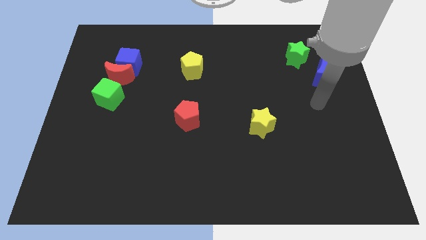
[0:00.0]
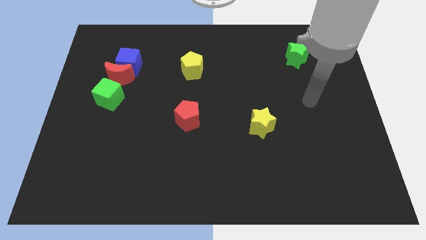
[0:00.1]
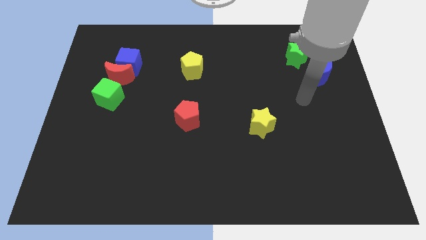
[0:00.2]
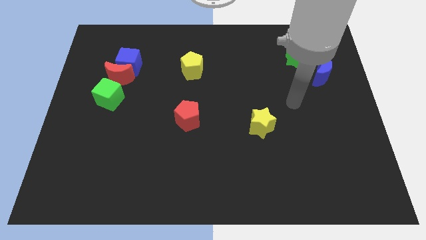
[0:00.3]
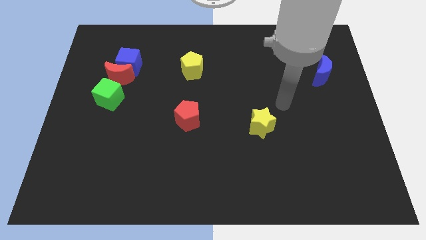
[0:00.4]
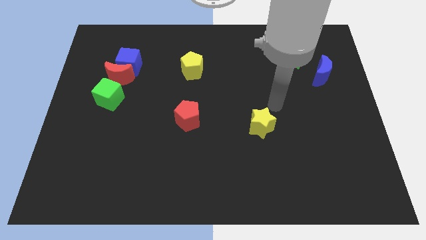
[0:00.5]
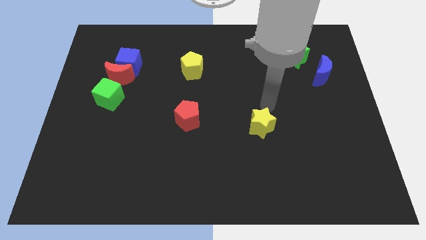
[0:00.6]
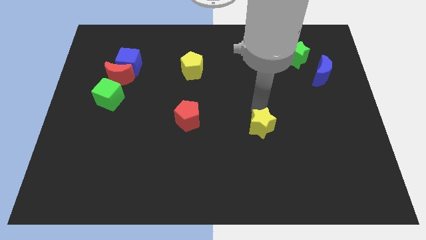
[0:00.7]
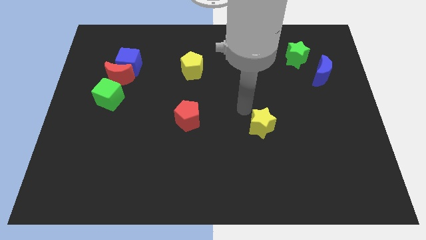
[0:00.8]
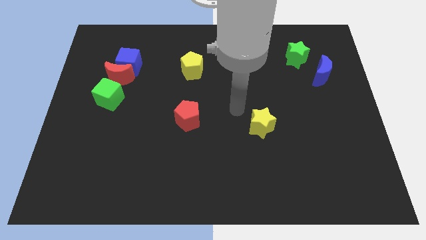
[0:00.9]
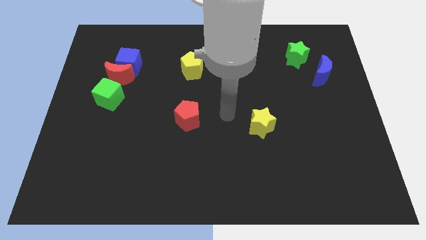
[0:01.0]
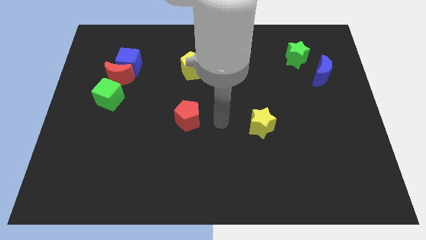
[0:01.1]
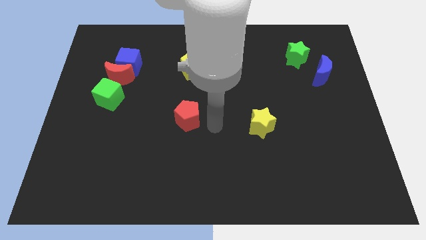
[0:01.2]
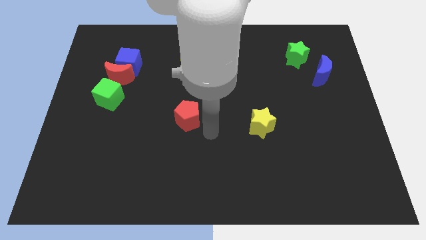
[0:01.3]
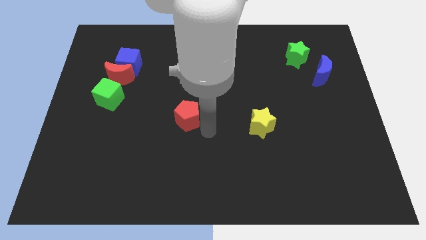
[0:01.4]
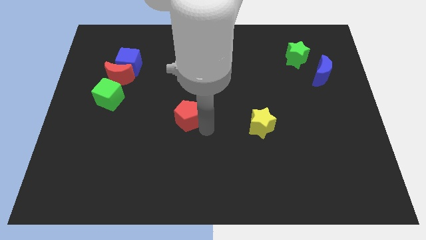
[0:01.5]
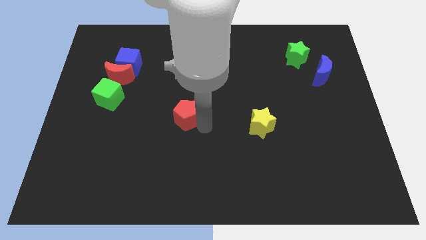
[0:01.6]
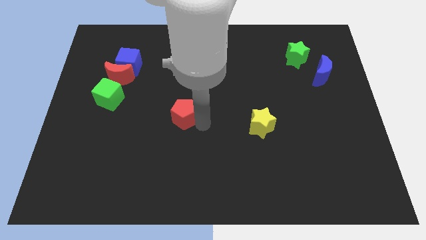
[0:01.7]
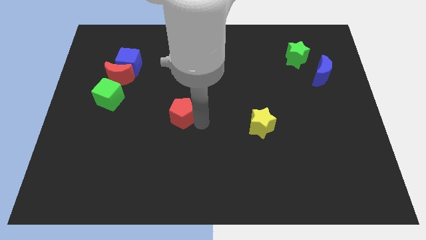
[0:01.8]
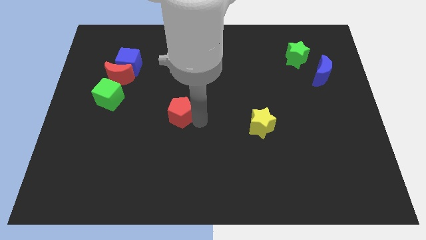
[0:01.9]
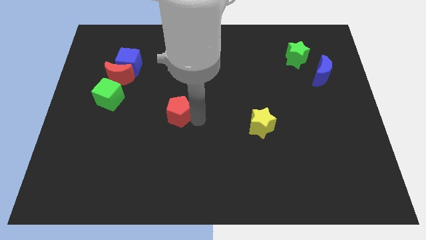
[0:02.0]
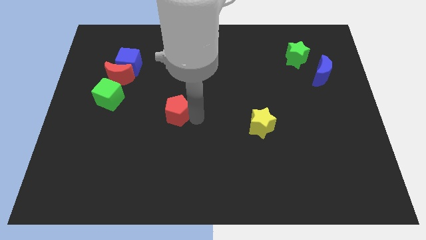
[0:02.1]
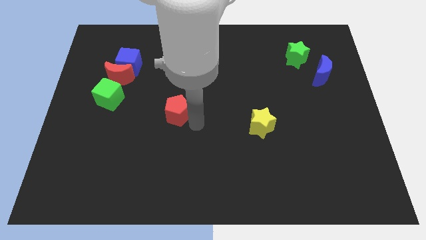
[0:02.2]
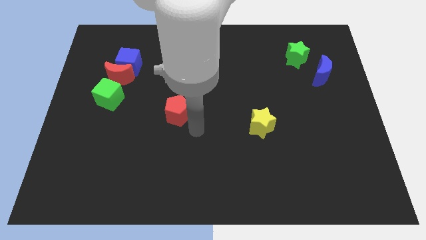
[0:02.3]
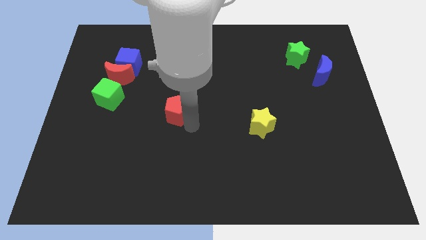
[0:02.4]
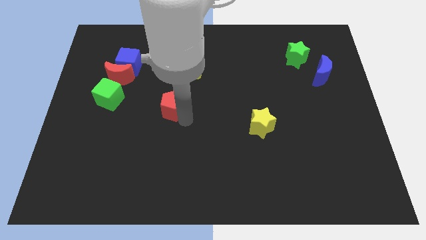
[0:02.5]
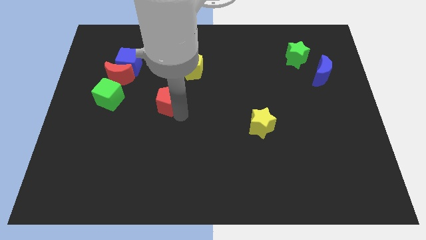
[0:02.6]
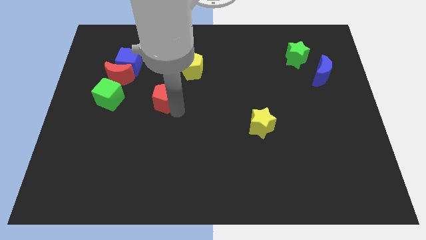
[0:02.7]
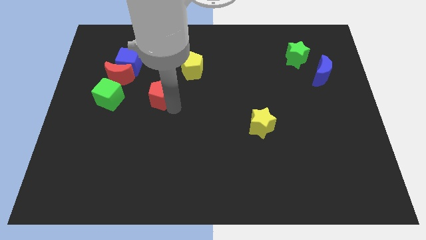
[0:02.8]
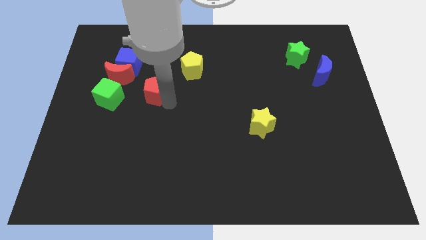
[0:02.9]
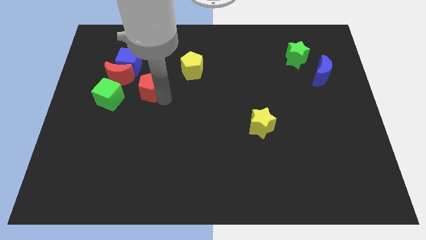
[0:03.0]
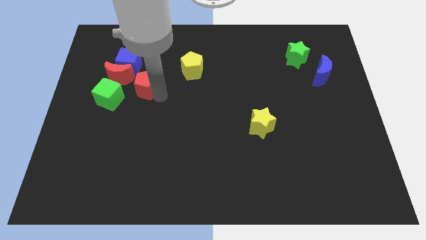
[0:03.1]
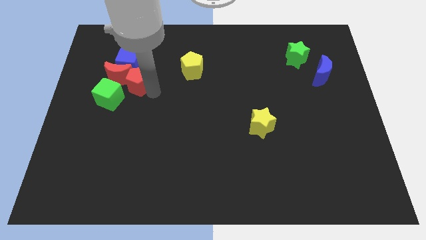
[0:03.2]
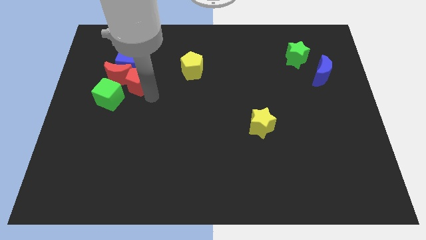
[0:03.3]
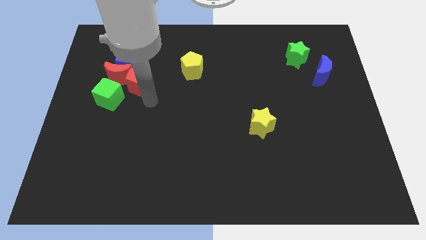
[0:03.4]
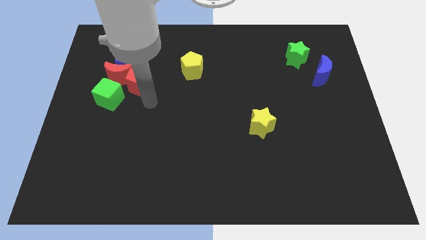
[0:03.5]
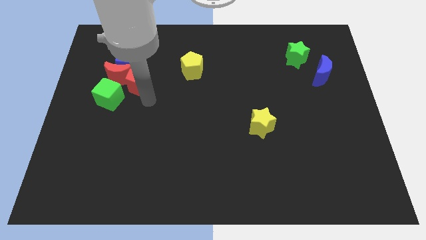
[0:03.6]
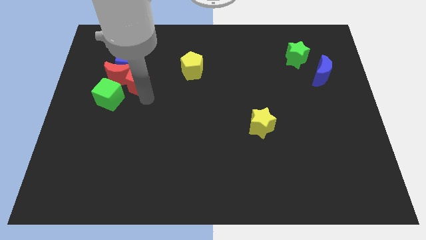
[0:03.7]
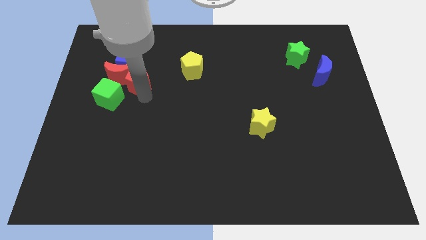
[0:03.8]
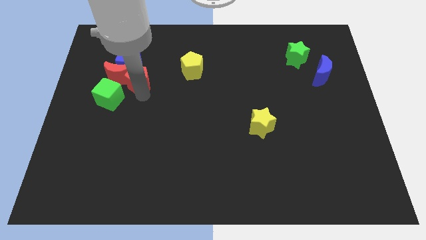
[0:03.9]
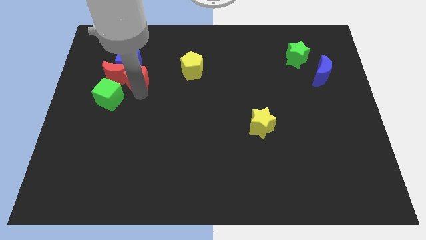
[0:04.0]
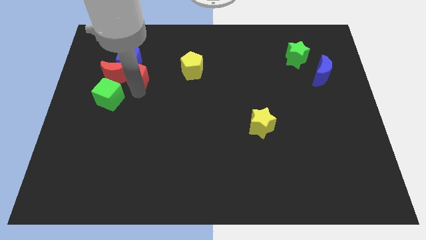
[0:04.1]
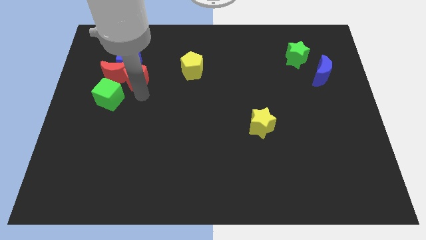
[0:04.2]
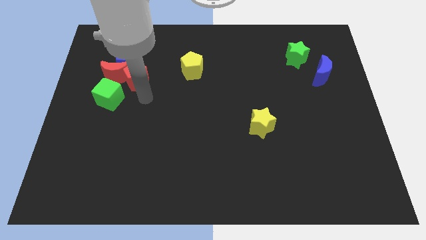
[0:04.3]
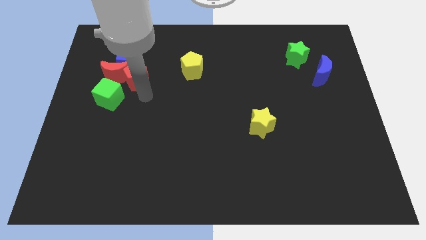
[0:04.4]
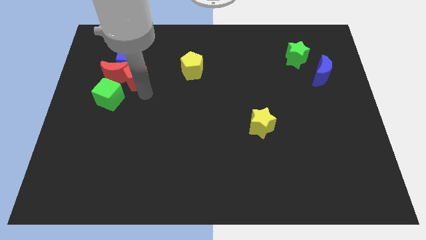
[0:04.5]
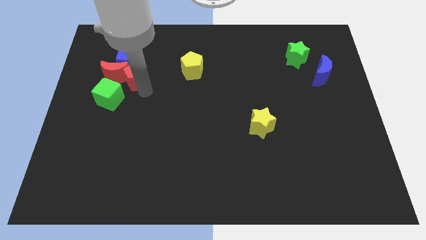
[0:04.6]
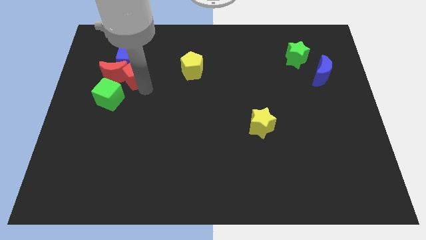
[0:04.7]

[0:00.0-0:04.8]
push the red pentagon close to the blue cube

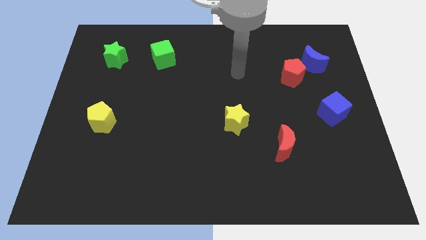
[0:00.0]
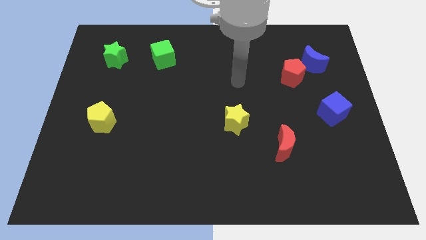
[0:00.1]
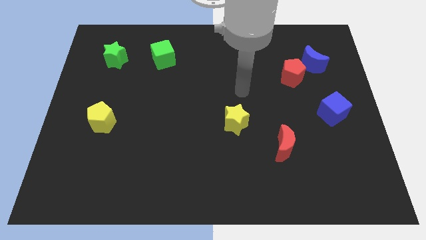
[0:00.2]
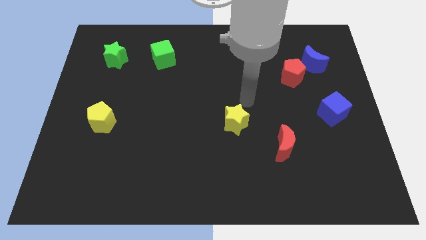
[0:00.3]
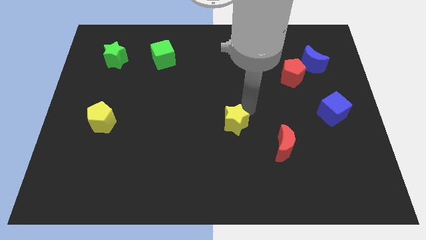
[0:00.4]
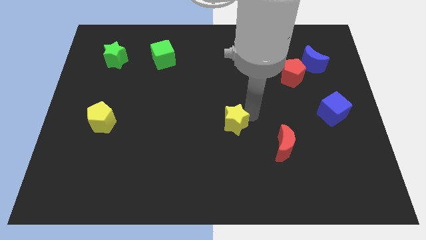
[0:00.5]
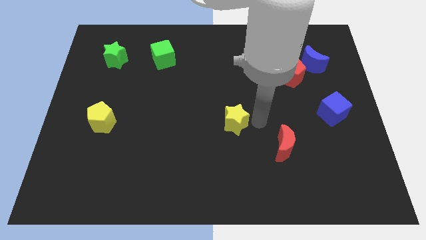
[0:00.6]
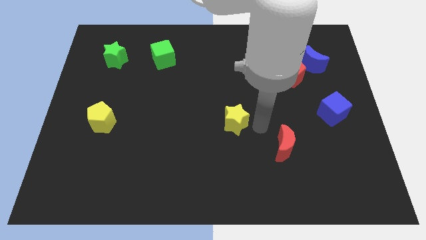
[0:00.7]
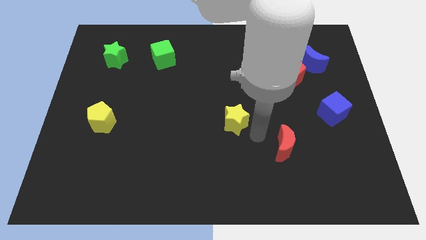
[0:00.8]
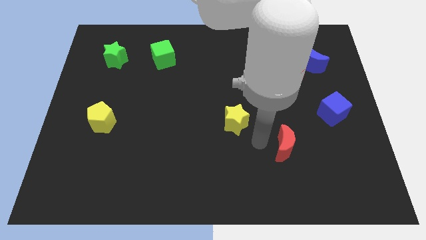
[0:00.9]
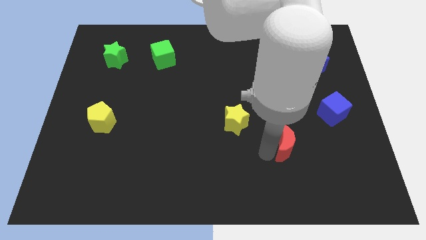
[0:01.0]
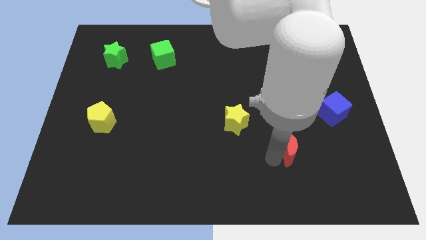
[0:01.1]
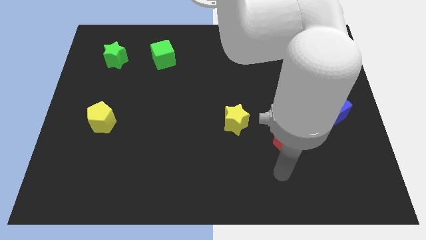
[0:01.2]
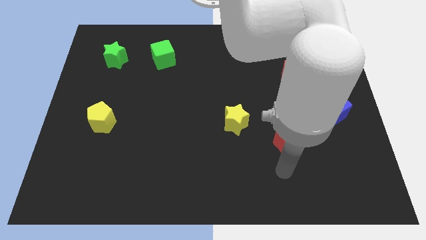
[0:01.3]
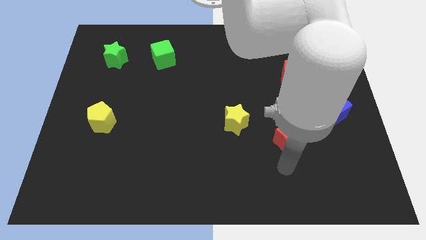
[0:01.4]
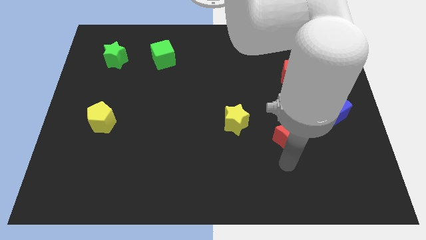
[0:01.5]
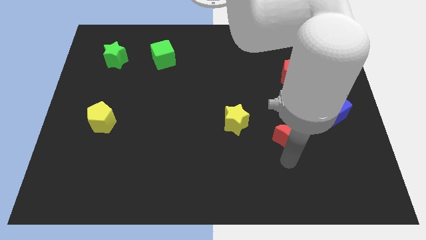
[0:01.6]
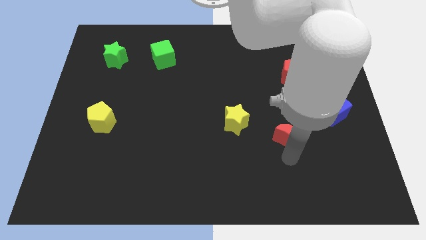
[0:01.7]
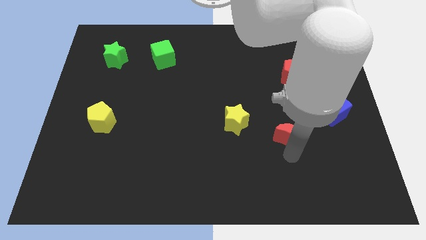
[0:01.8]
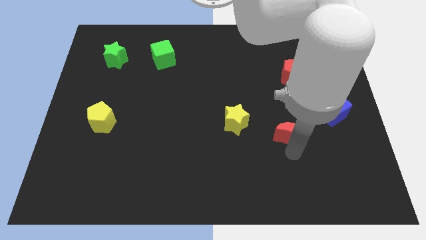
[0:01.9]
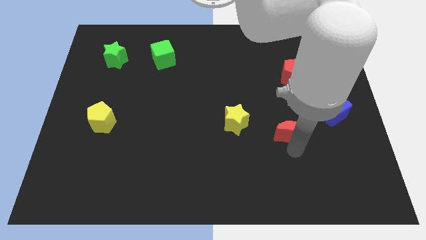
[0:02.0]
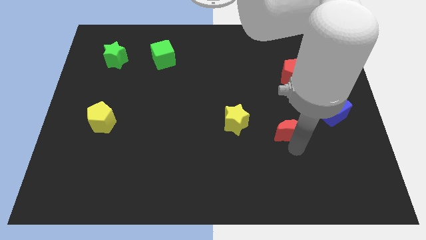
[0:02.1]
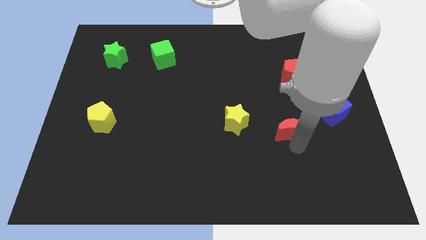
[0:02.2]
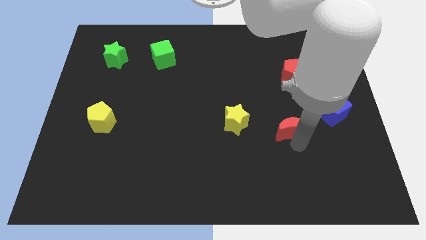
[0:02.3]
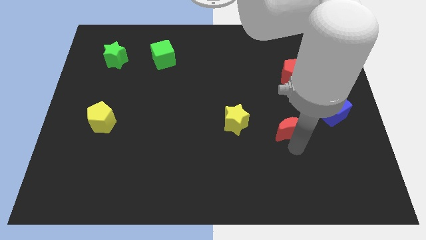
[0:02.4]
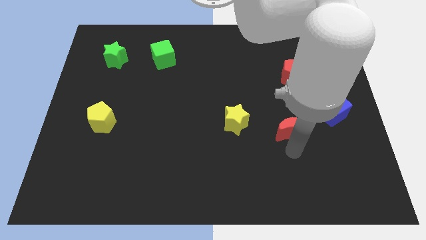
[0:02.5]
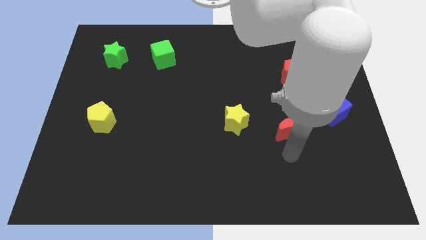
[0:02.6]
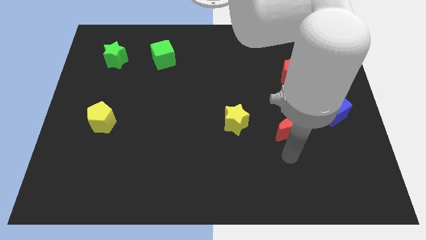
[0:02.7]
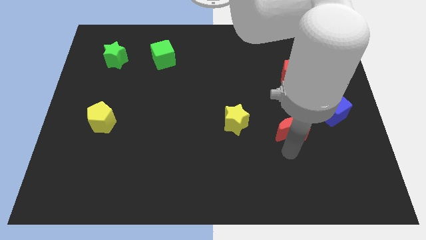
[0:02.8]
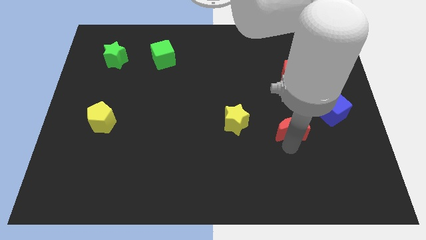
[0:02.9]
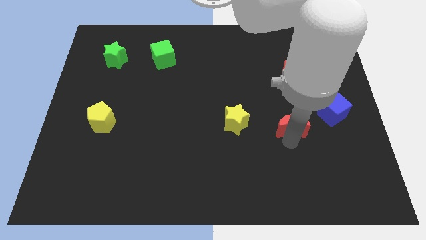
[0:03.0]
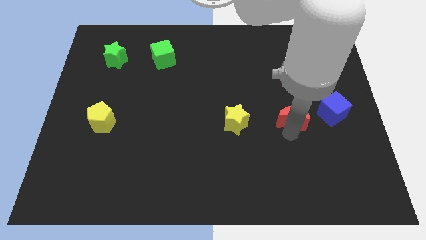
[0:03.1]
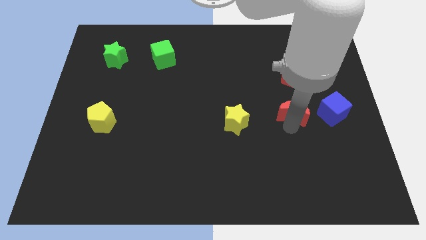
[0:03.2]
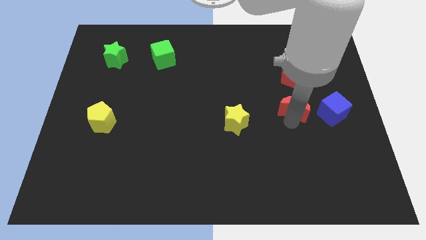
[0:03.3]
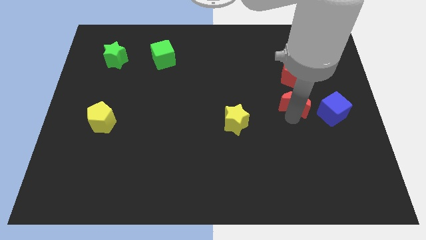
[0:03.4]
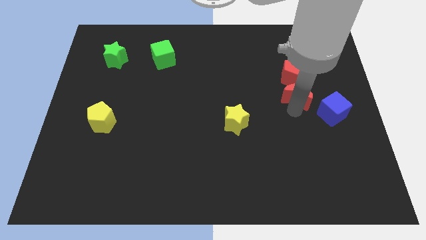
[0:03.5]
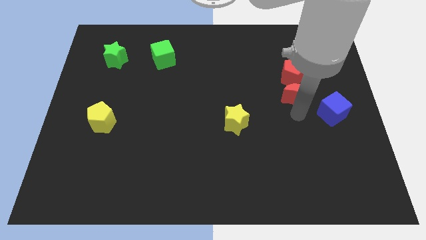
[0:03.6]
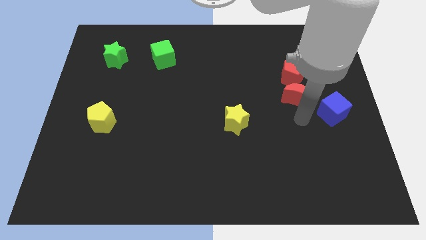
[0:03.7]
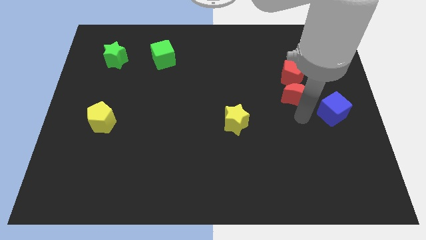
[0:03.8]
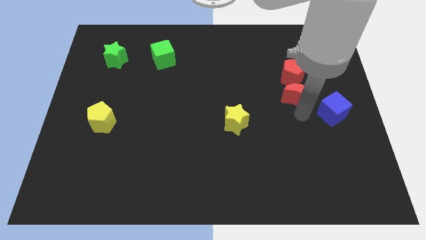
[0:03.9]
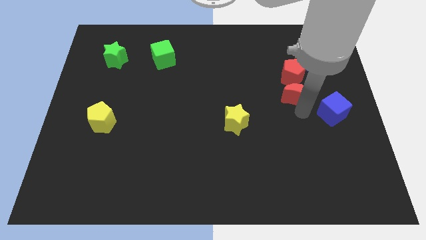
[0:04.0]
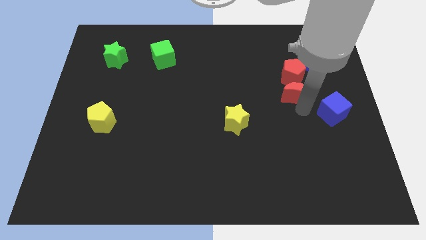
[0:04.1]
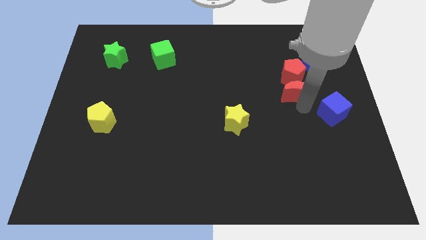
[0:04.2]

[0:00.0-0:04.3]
slide the red moon close to the red pentagon
